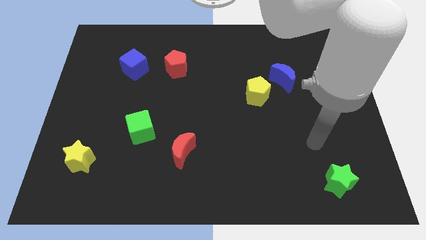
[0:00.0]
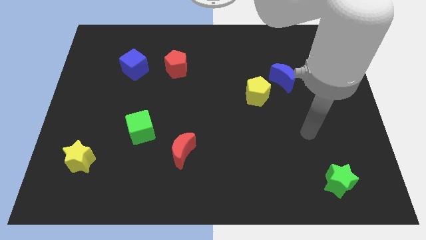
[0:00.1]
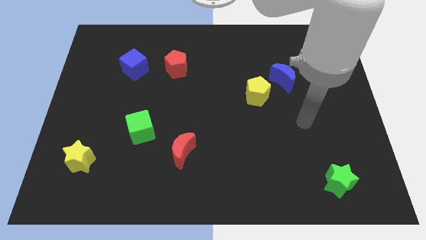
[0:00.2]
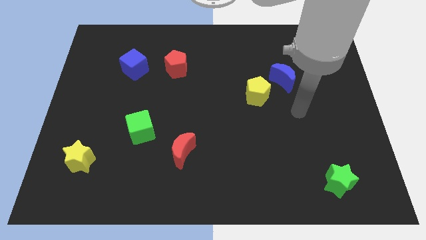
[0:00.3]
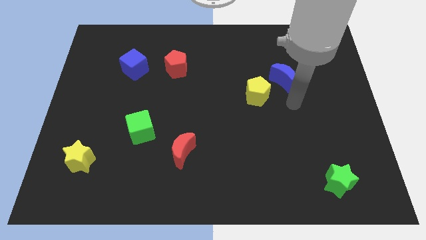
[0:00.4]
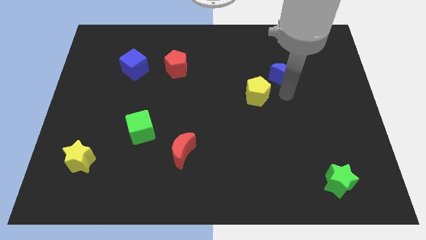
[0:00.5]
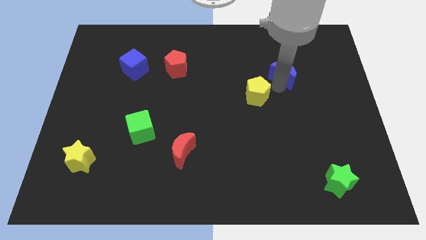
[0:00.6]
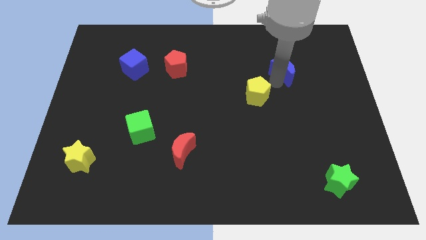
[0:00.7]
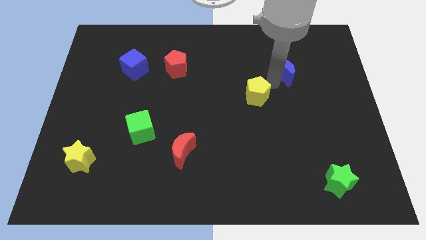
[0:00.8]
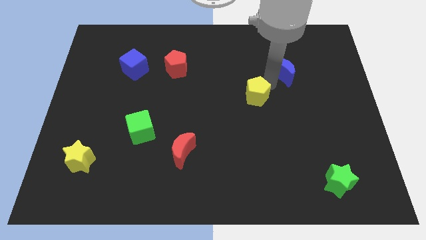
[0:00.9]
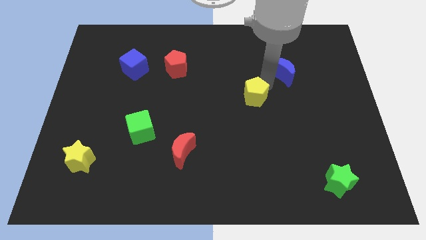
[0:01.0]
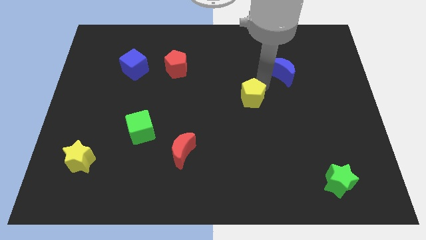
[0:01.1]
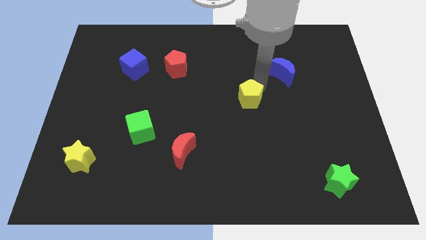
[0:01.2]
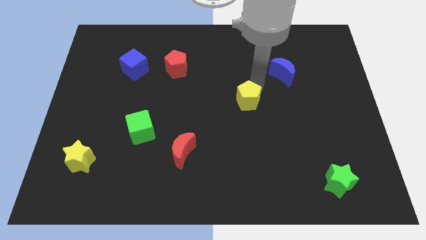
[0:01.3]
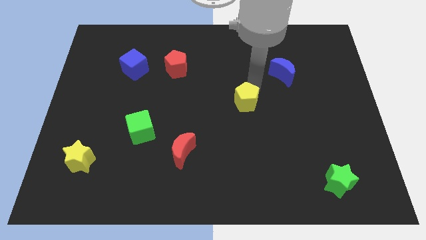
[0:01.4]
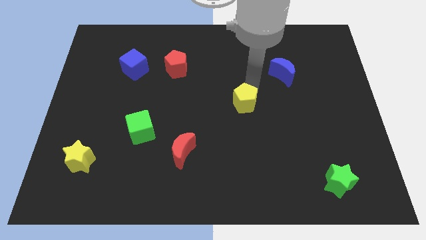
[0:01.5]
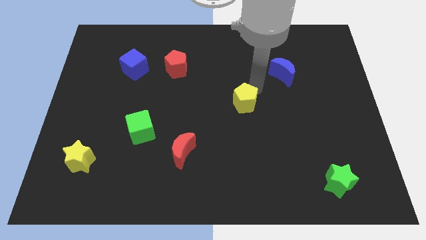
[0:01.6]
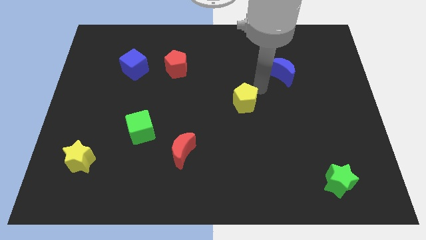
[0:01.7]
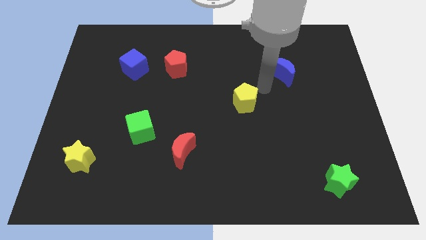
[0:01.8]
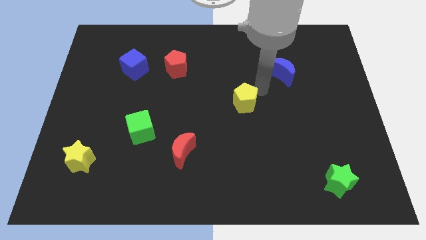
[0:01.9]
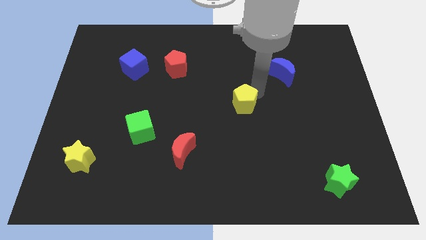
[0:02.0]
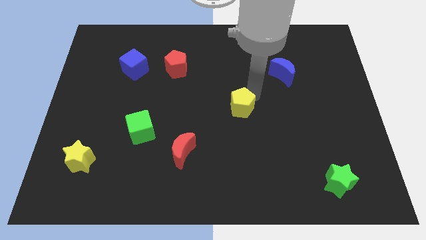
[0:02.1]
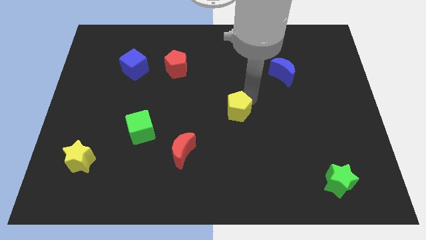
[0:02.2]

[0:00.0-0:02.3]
slightly move the yellow pentagon diagonally down and to the left

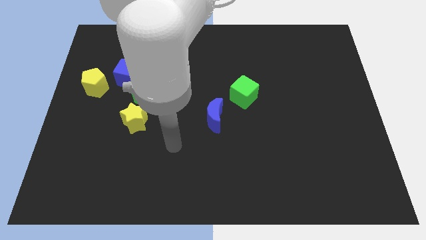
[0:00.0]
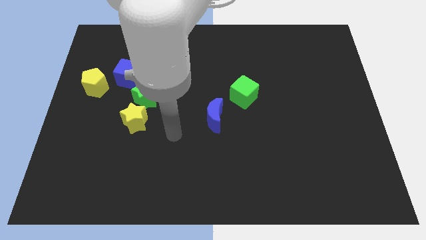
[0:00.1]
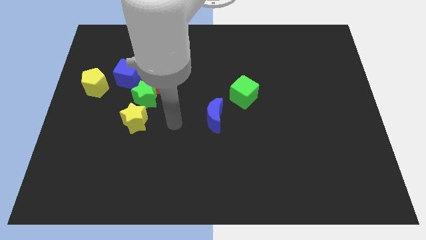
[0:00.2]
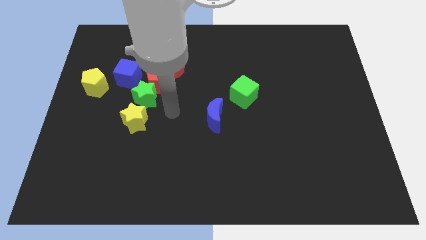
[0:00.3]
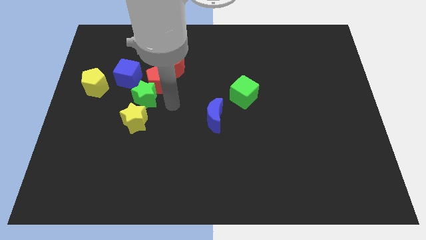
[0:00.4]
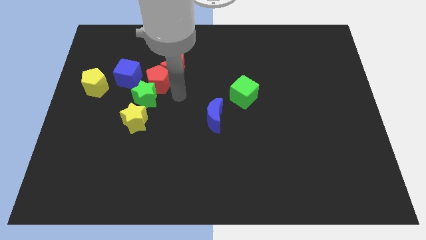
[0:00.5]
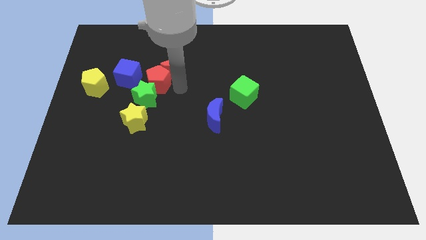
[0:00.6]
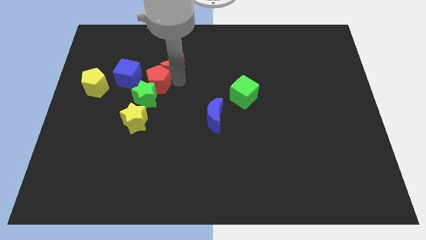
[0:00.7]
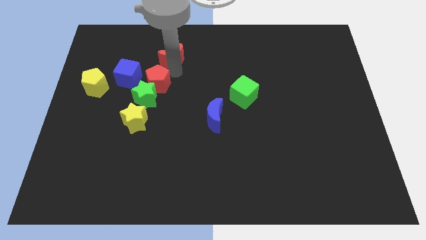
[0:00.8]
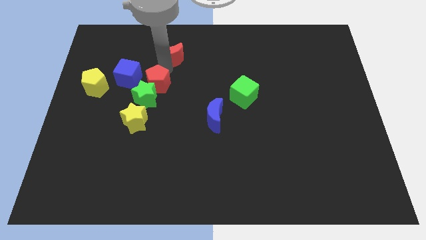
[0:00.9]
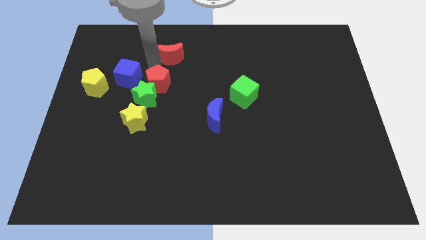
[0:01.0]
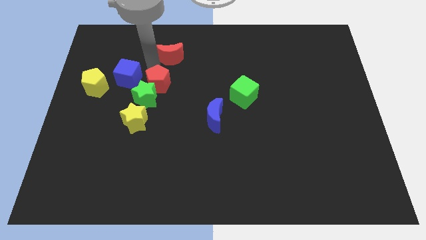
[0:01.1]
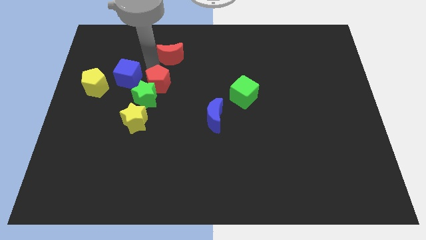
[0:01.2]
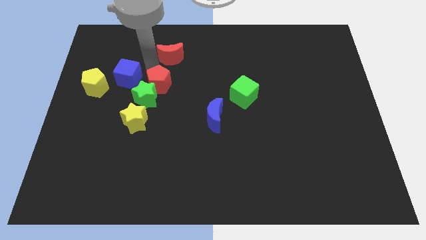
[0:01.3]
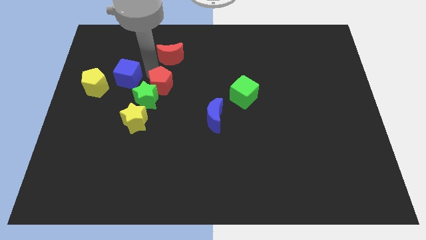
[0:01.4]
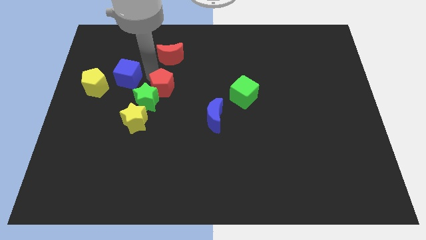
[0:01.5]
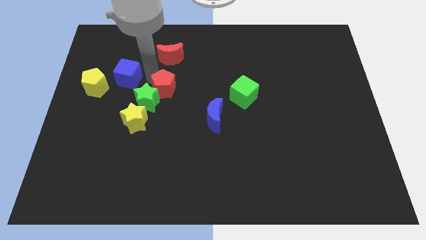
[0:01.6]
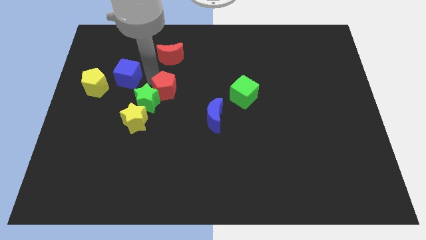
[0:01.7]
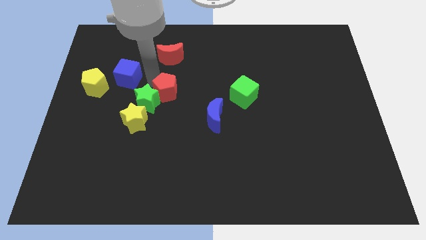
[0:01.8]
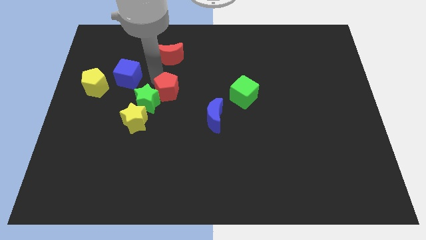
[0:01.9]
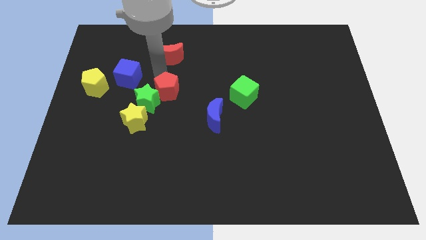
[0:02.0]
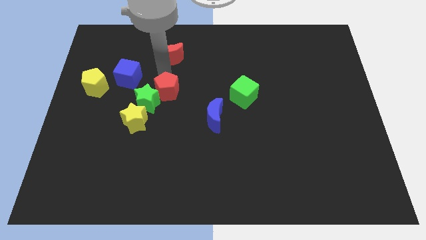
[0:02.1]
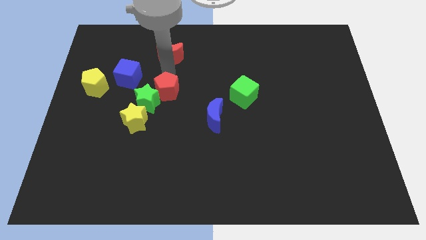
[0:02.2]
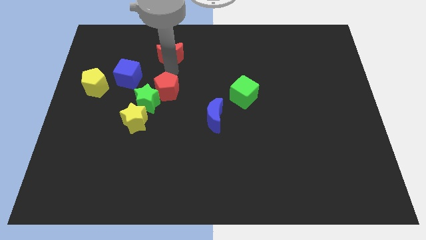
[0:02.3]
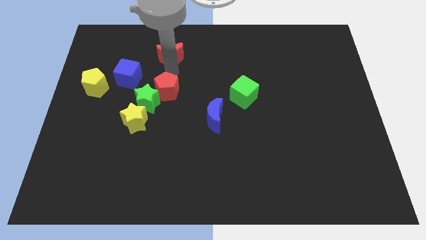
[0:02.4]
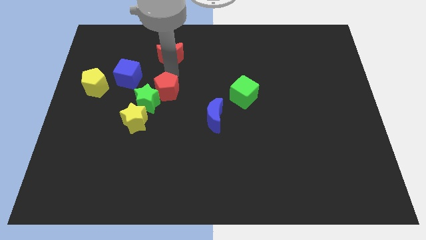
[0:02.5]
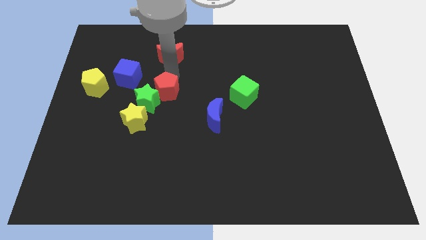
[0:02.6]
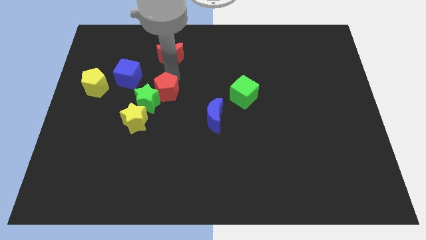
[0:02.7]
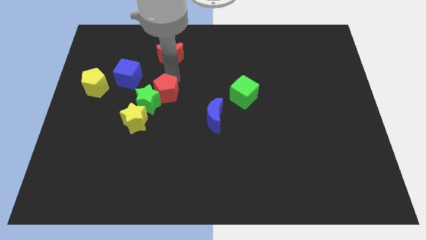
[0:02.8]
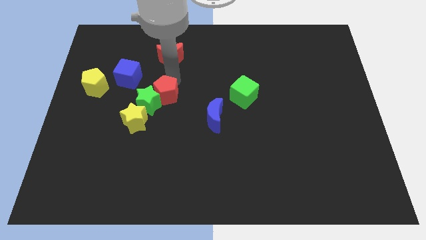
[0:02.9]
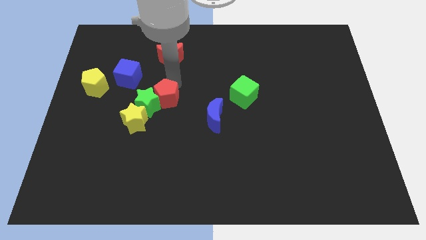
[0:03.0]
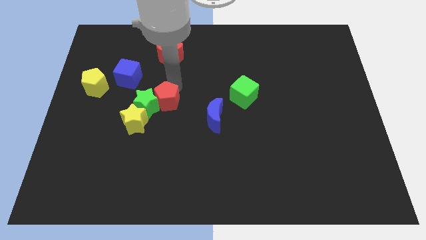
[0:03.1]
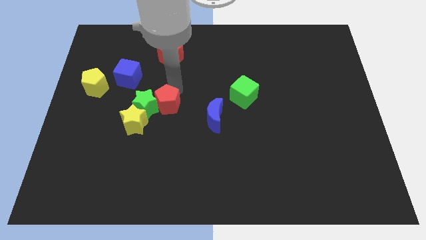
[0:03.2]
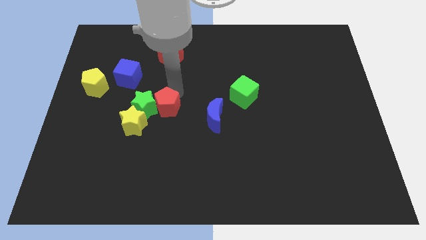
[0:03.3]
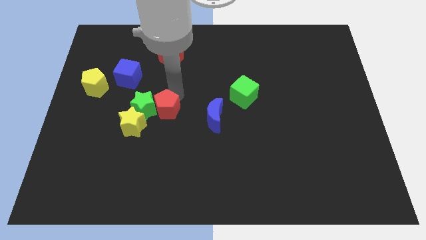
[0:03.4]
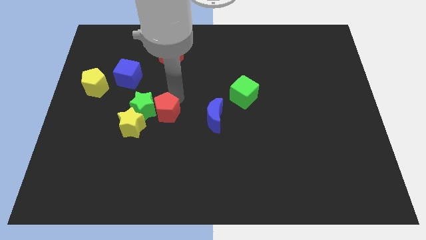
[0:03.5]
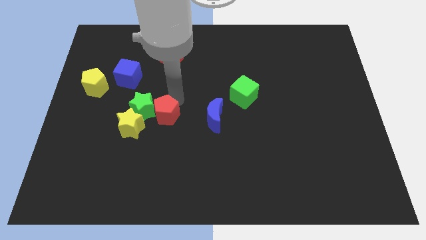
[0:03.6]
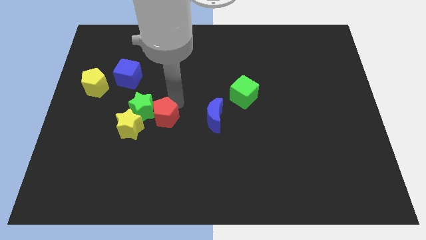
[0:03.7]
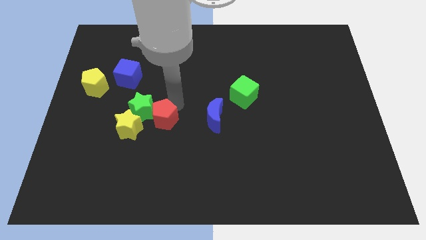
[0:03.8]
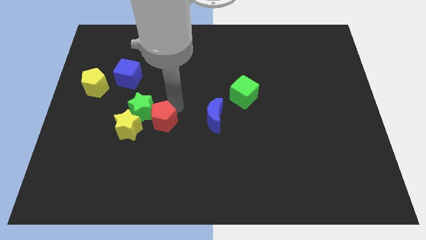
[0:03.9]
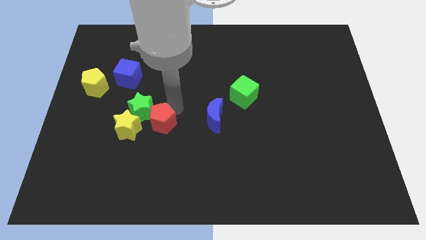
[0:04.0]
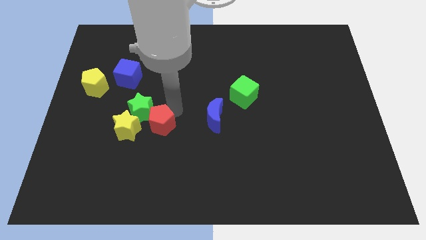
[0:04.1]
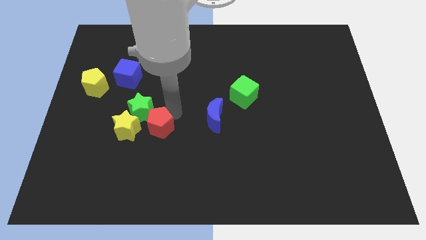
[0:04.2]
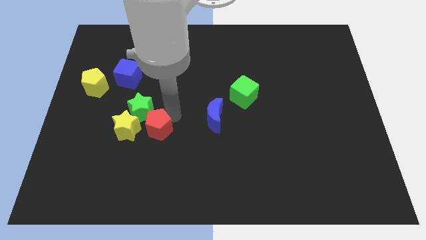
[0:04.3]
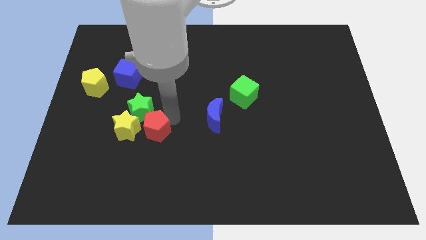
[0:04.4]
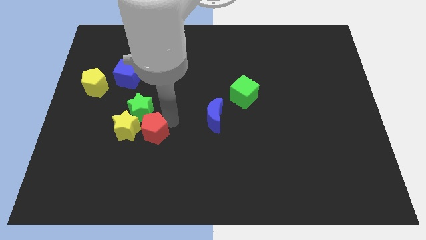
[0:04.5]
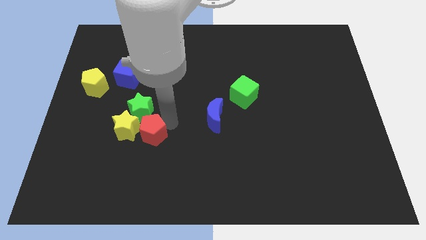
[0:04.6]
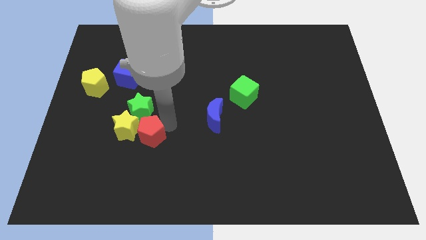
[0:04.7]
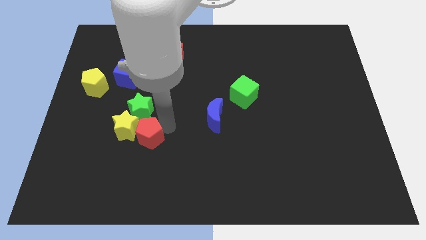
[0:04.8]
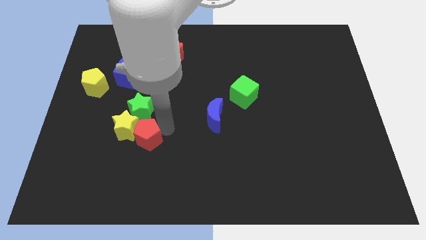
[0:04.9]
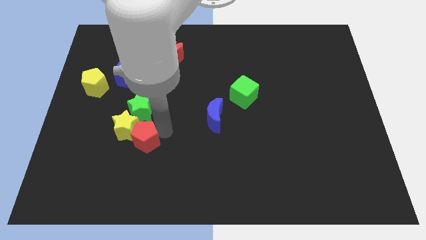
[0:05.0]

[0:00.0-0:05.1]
slightly push the red pentagon downwards and to the left

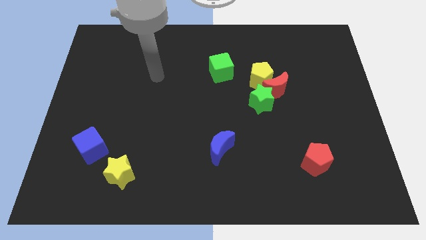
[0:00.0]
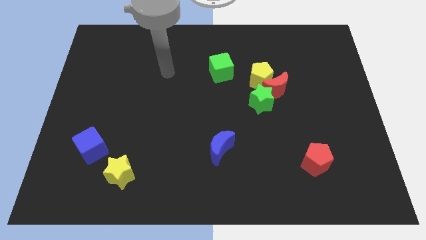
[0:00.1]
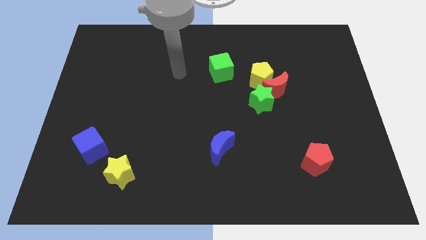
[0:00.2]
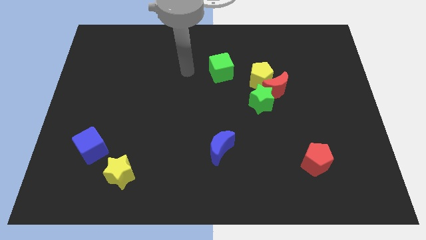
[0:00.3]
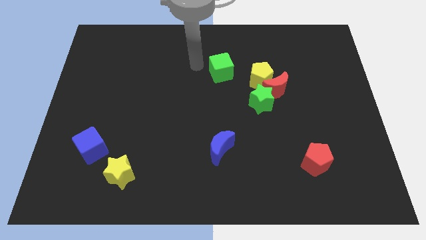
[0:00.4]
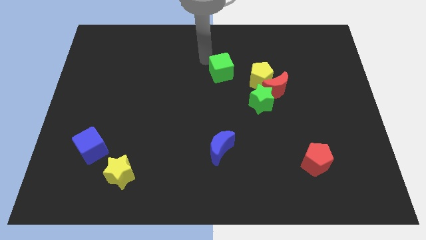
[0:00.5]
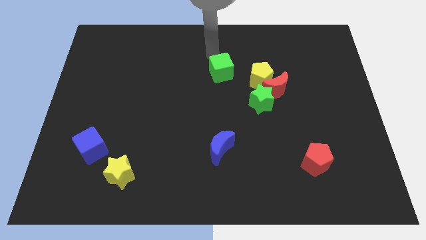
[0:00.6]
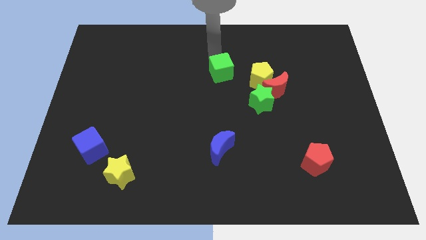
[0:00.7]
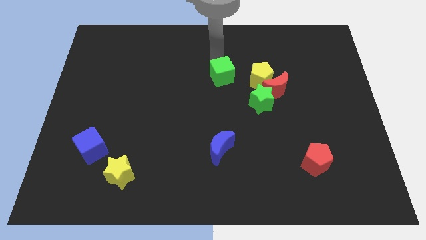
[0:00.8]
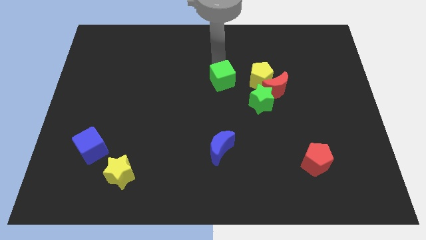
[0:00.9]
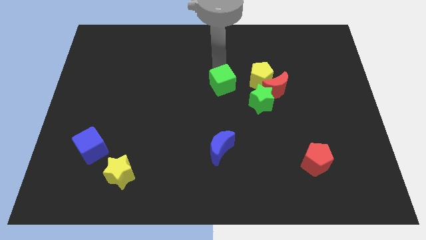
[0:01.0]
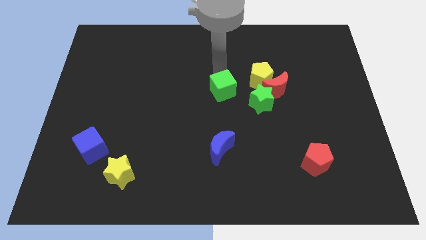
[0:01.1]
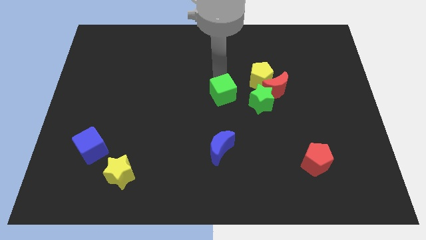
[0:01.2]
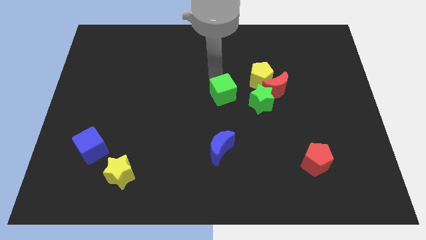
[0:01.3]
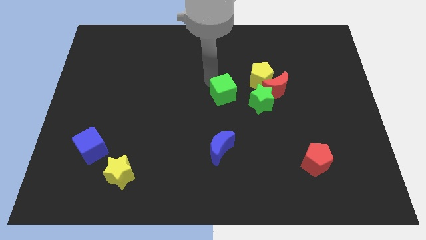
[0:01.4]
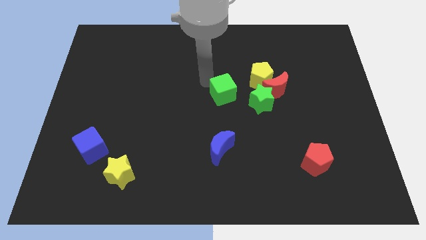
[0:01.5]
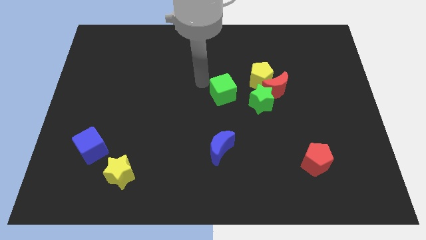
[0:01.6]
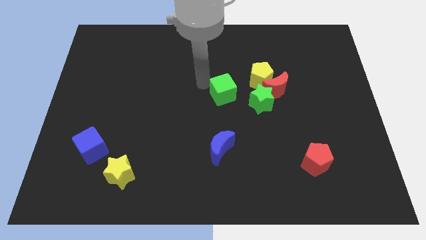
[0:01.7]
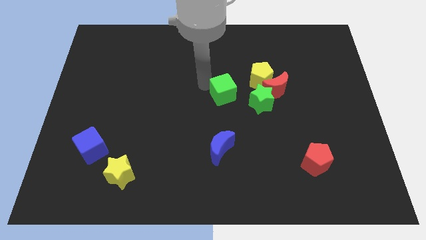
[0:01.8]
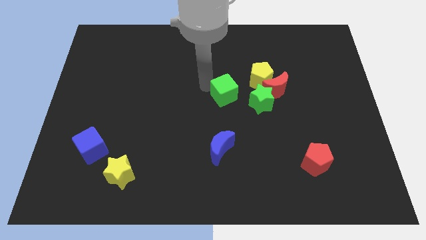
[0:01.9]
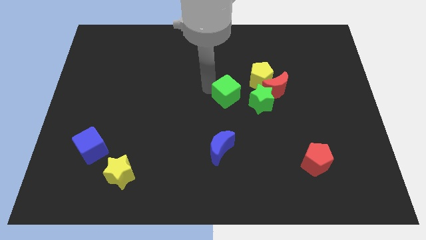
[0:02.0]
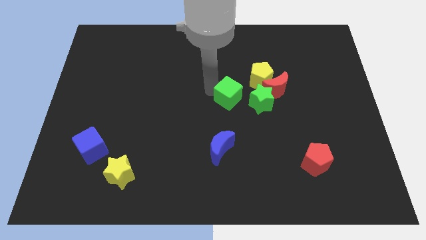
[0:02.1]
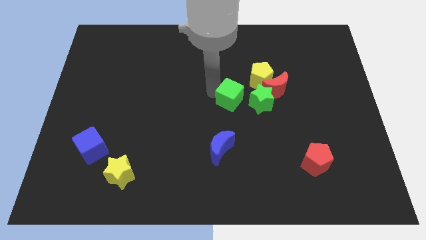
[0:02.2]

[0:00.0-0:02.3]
slide the green cube a bit down and right diagonally
